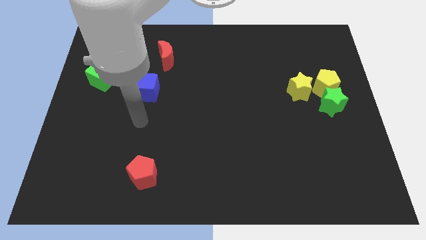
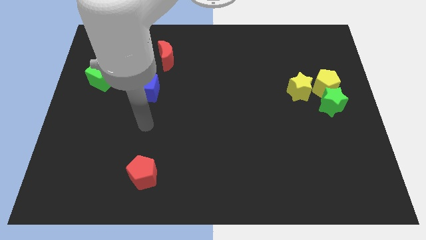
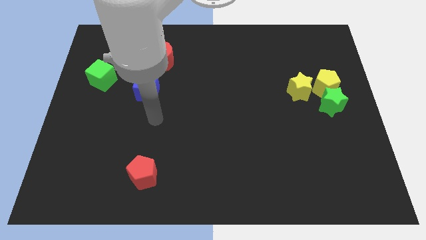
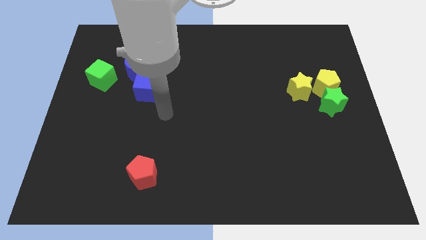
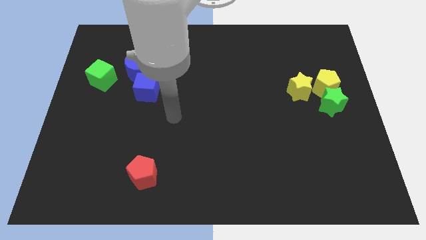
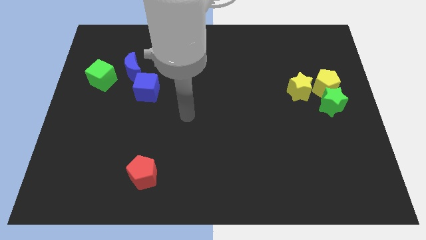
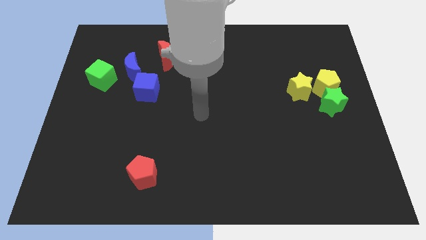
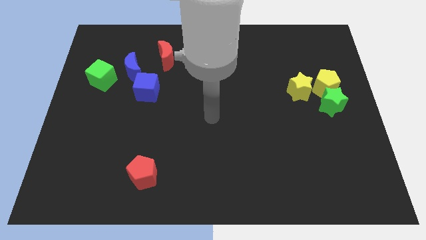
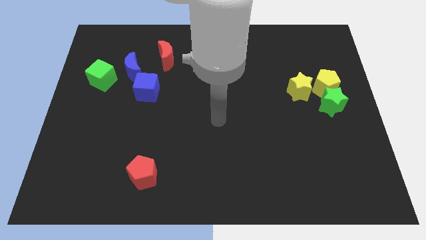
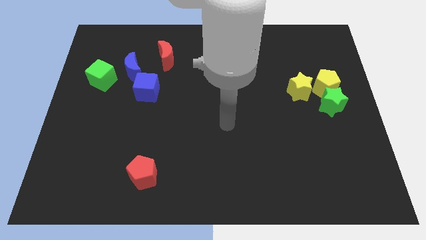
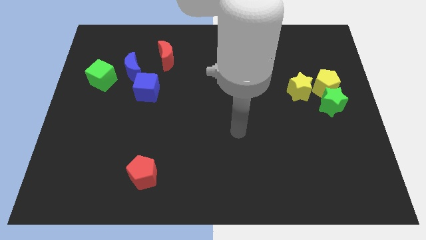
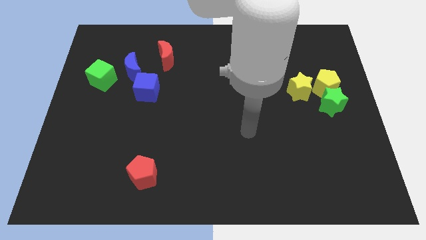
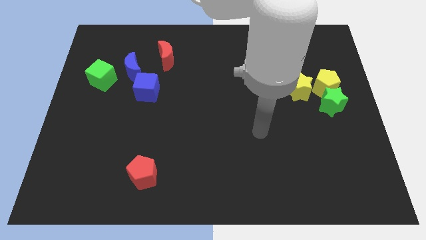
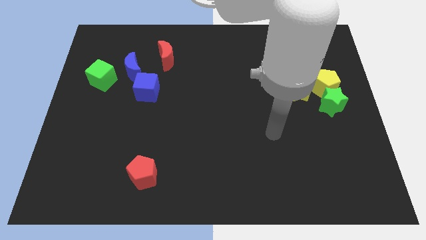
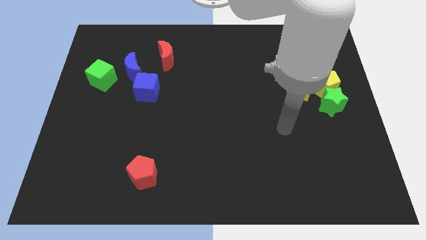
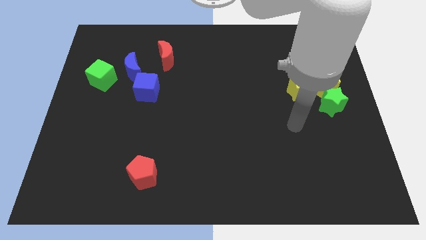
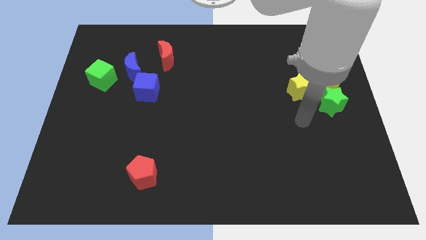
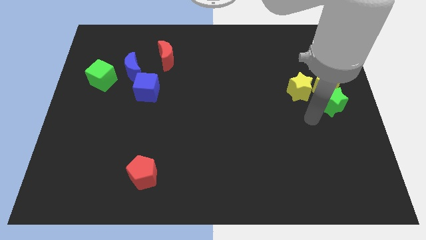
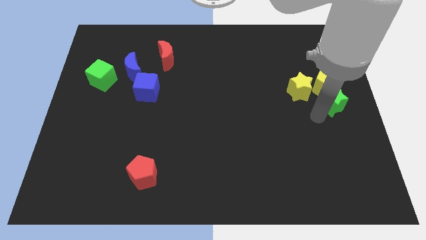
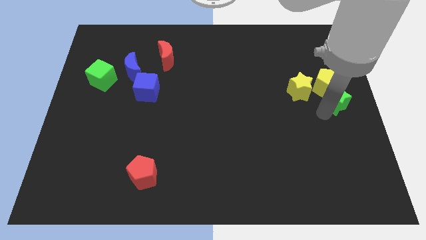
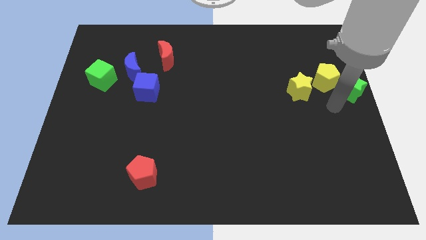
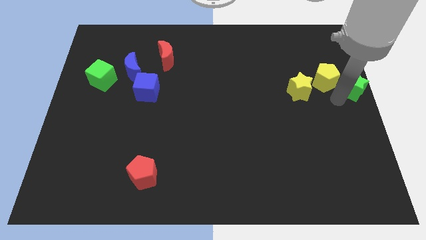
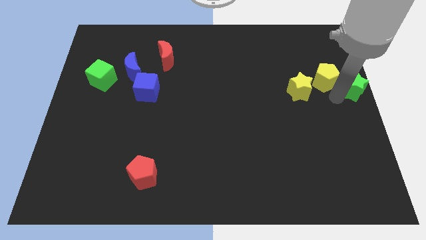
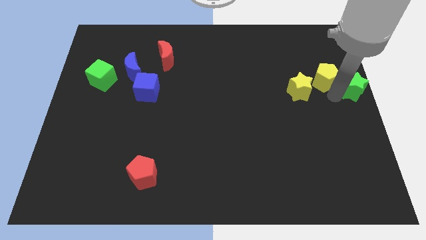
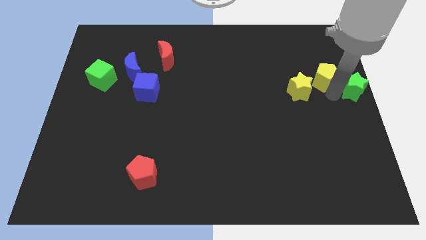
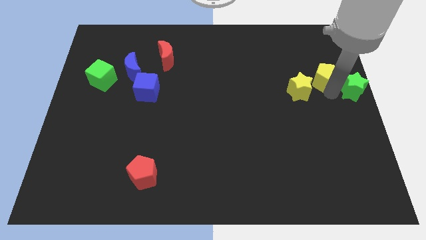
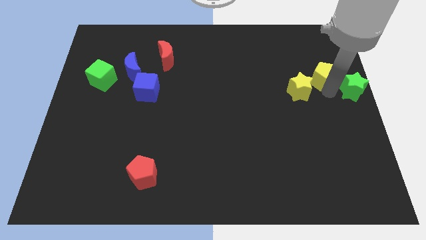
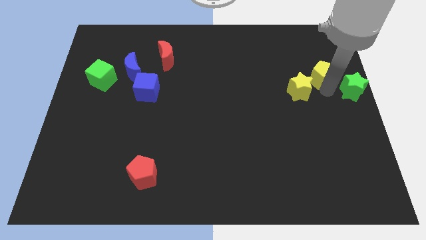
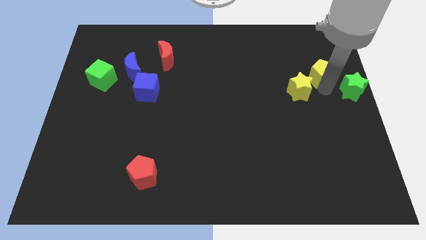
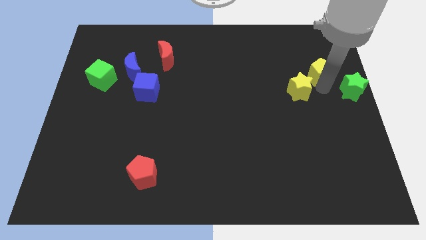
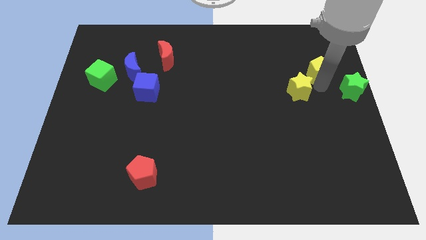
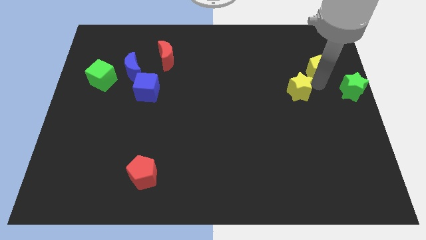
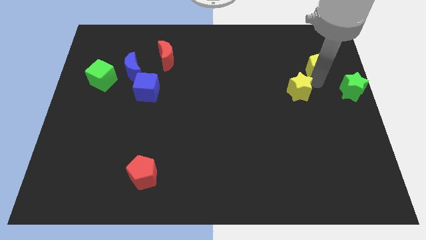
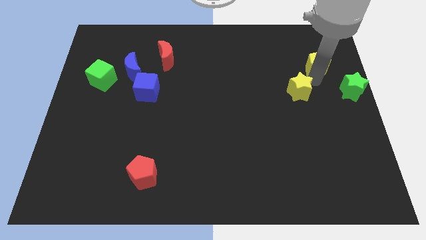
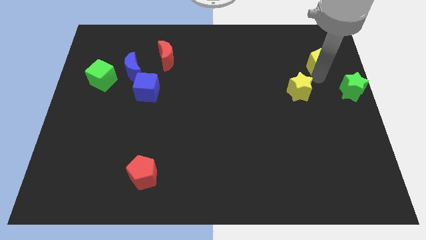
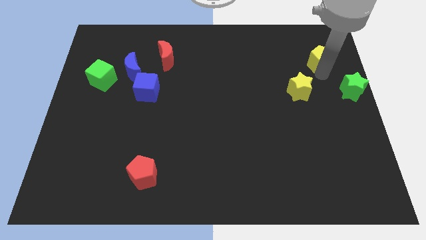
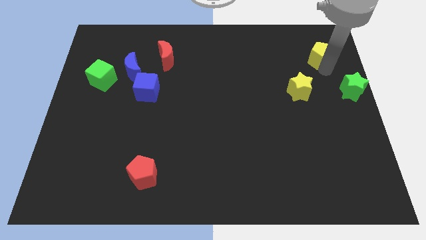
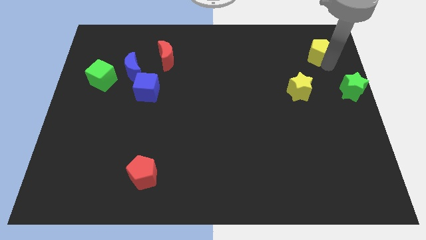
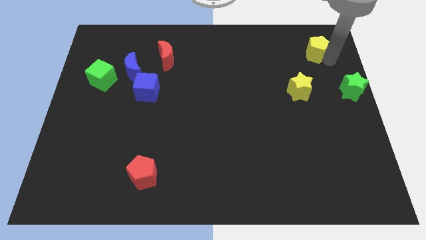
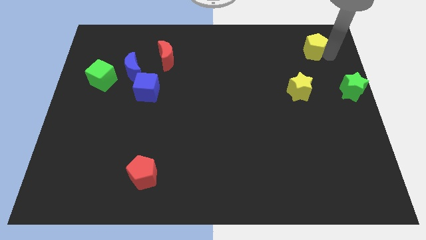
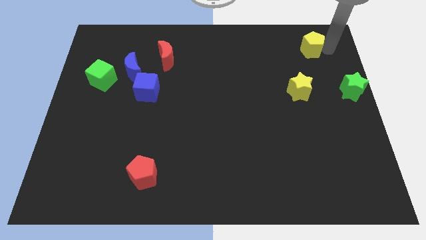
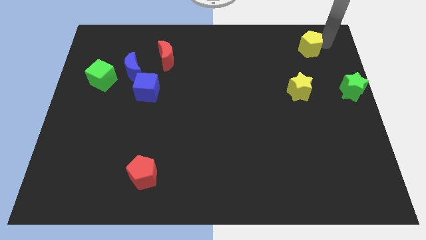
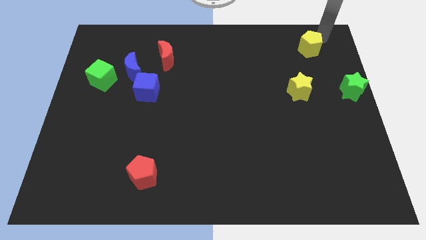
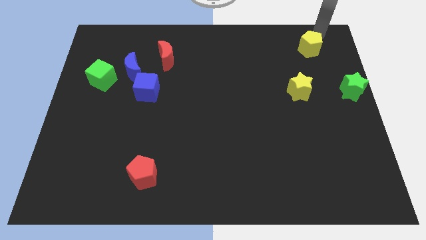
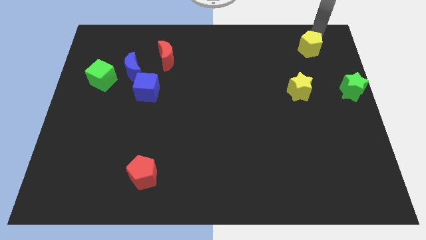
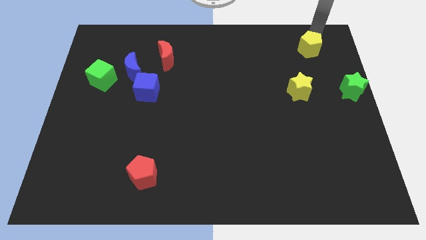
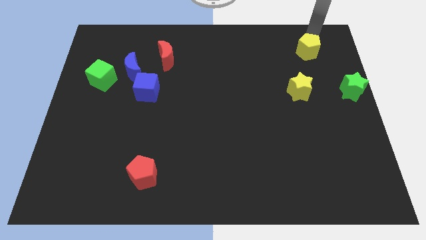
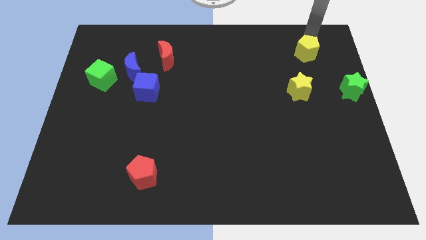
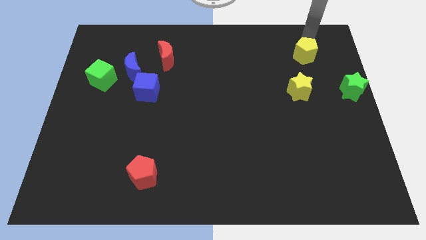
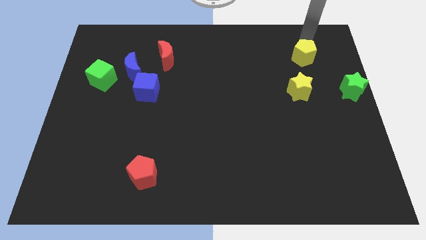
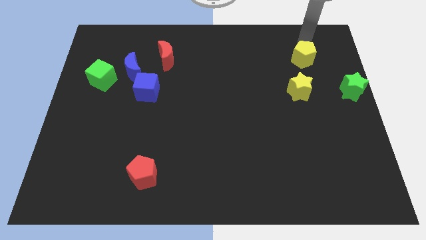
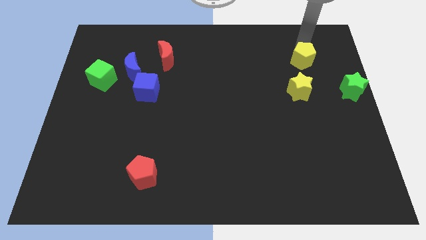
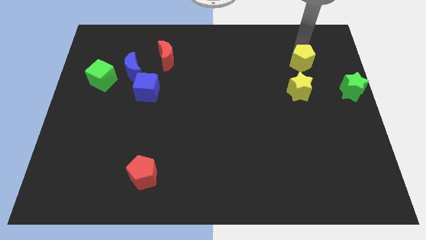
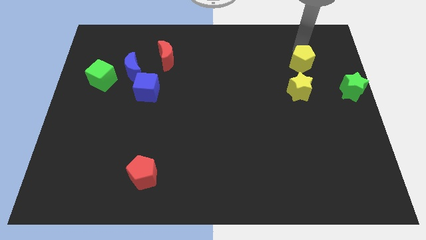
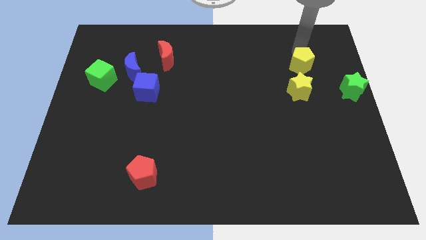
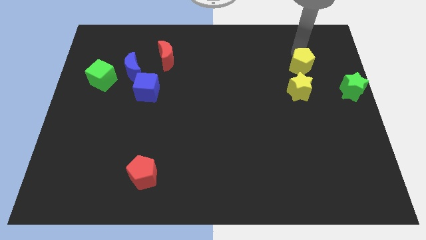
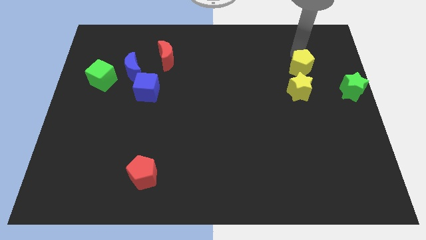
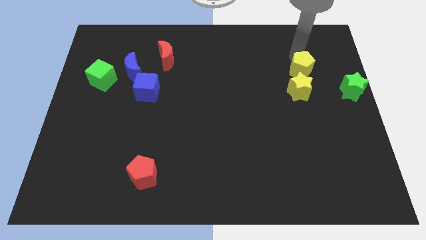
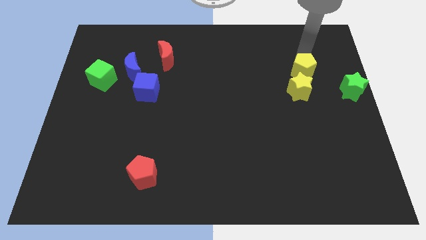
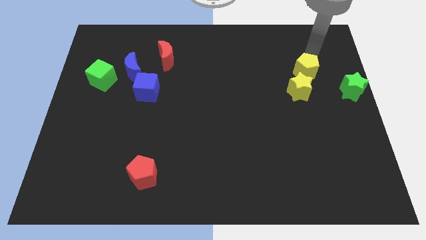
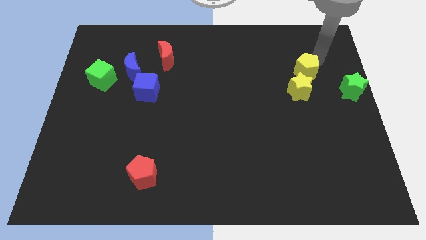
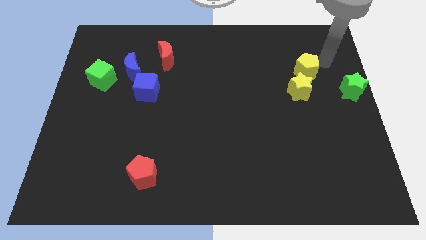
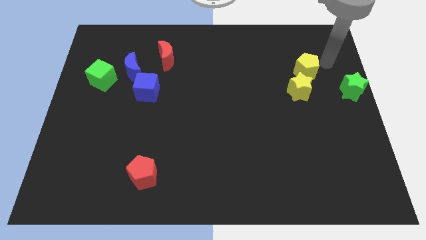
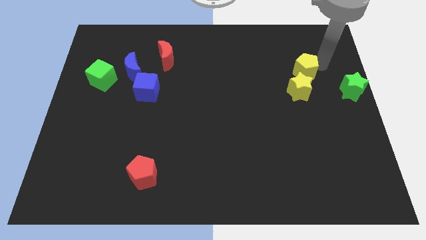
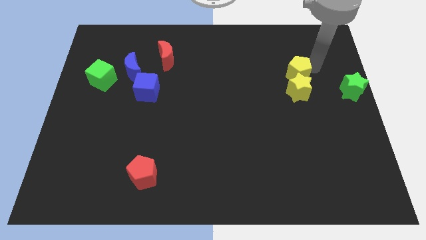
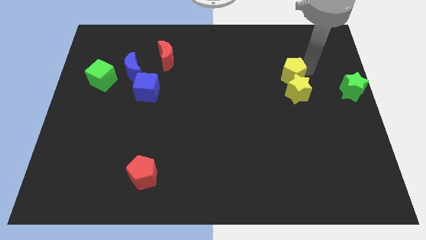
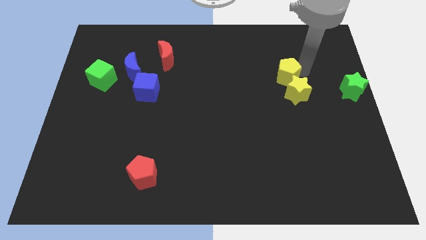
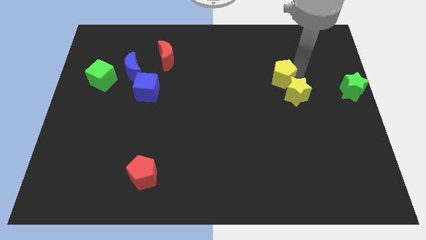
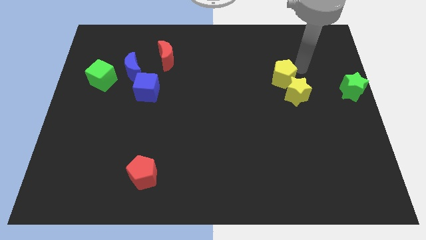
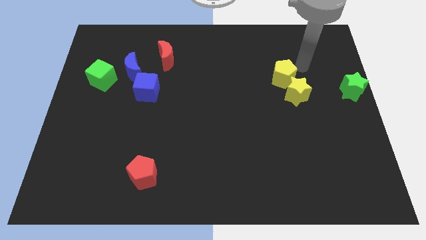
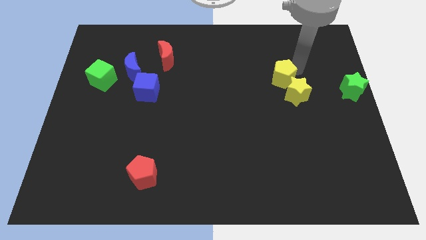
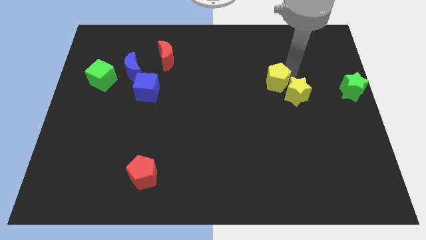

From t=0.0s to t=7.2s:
slide the yellow pentagon left of the yellow star
